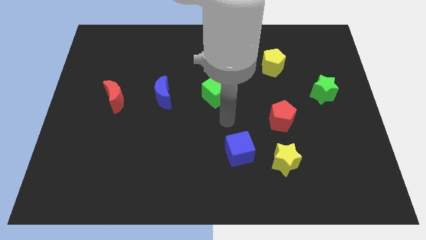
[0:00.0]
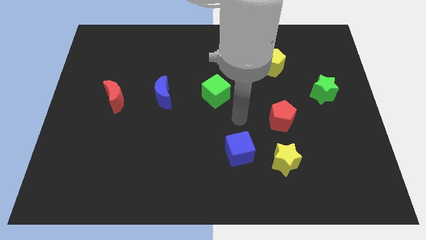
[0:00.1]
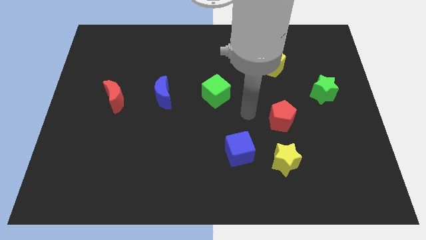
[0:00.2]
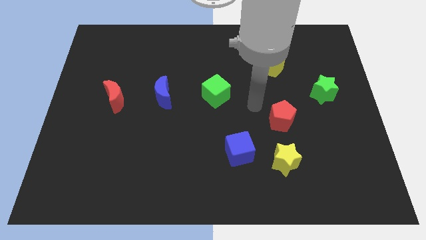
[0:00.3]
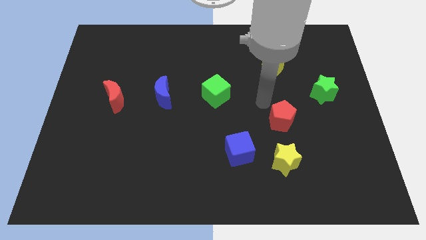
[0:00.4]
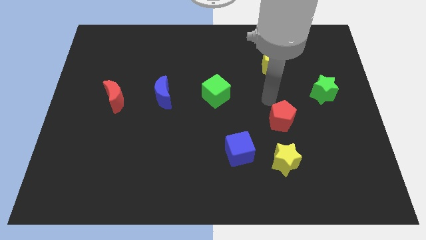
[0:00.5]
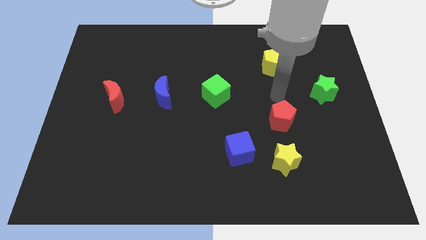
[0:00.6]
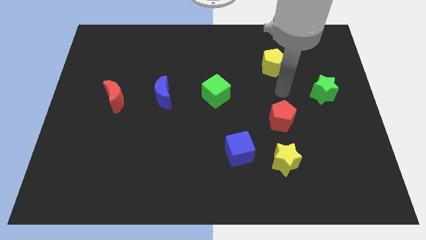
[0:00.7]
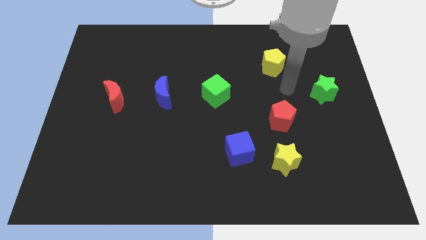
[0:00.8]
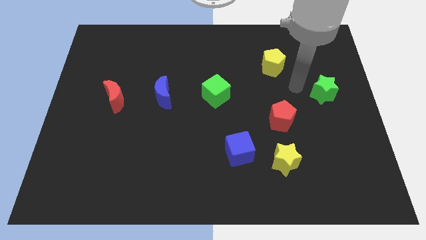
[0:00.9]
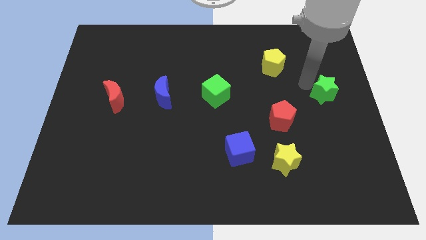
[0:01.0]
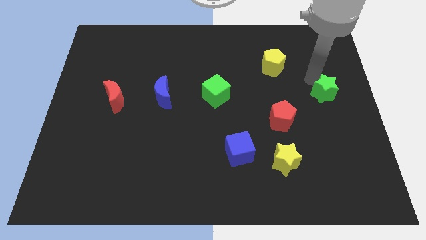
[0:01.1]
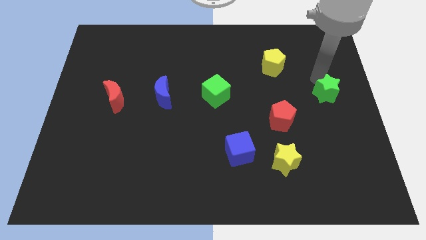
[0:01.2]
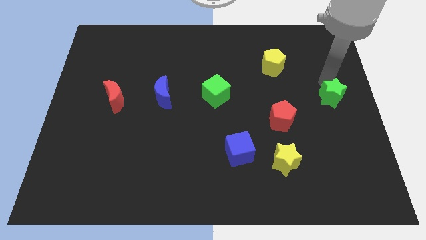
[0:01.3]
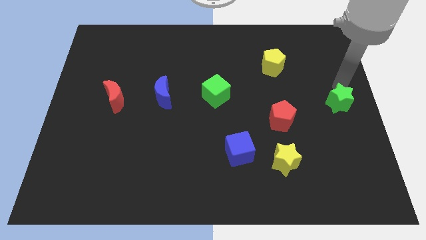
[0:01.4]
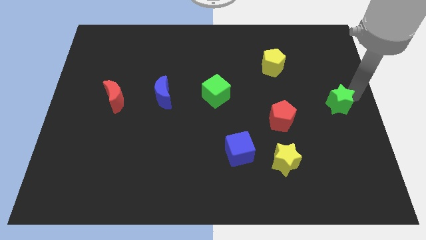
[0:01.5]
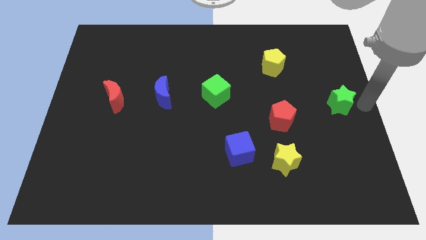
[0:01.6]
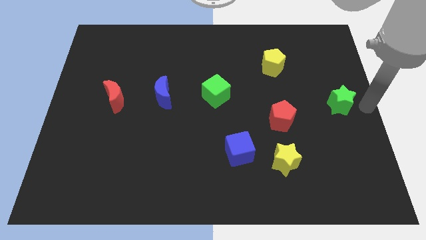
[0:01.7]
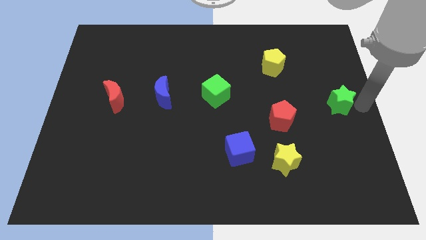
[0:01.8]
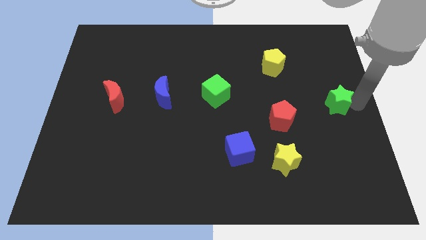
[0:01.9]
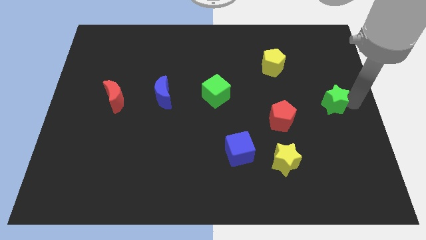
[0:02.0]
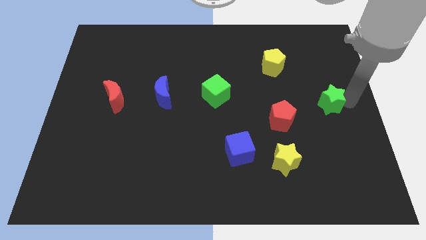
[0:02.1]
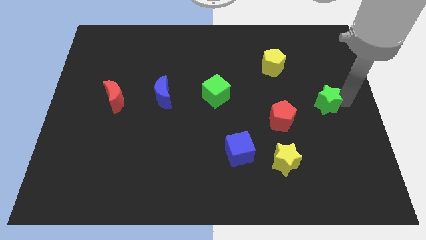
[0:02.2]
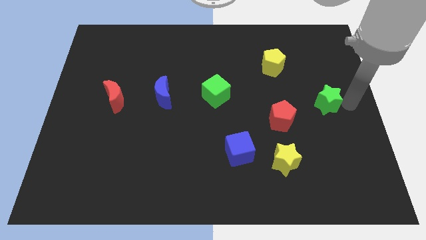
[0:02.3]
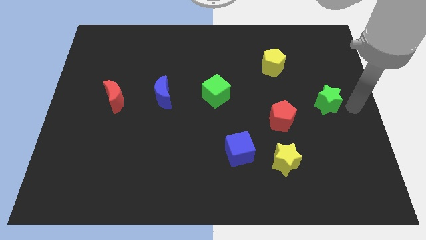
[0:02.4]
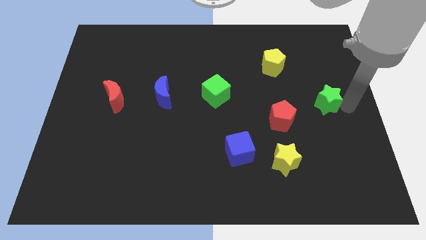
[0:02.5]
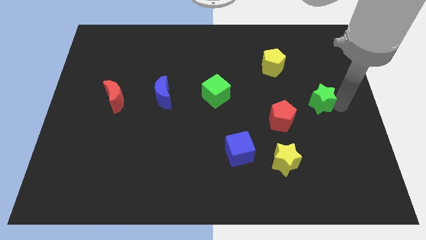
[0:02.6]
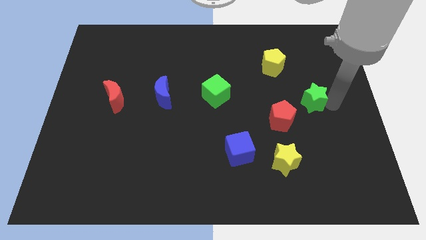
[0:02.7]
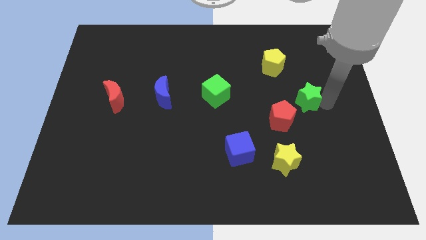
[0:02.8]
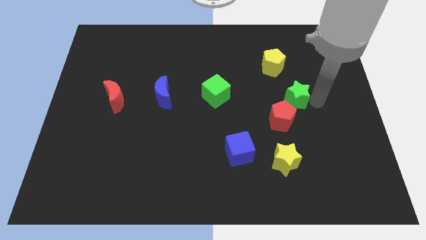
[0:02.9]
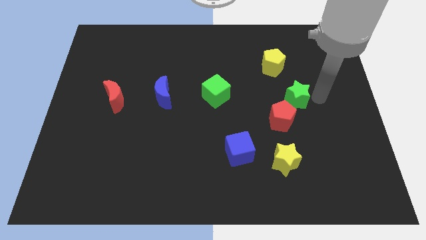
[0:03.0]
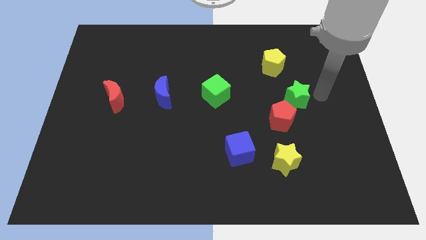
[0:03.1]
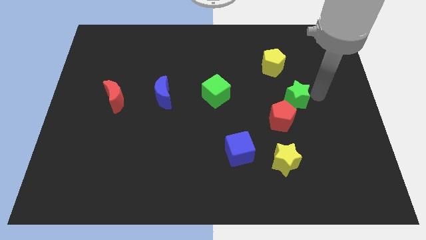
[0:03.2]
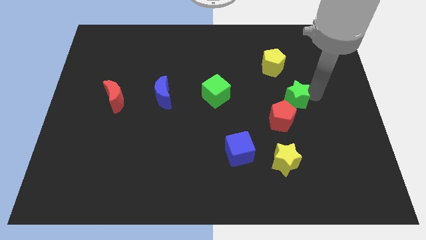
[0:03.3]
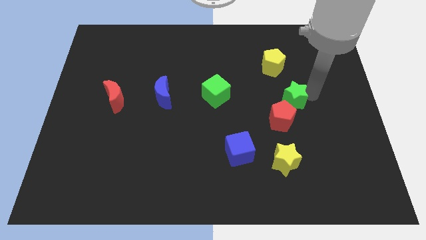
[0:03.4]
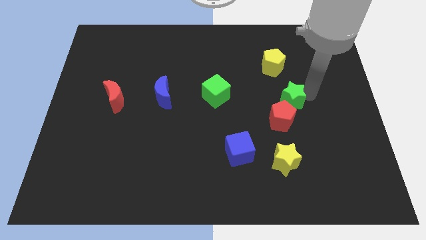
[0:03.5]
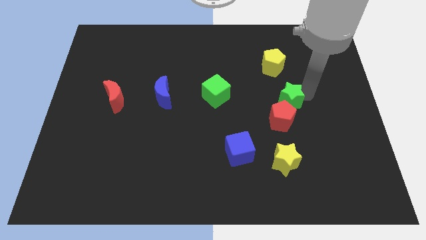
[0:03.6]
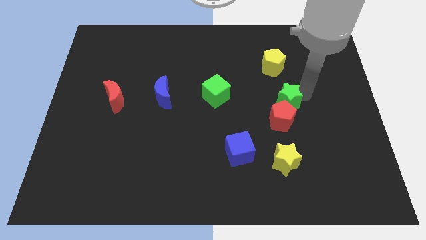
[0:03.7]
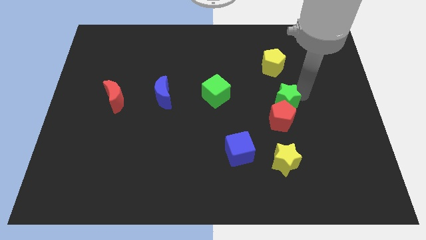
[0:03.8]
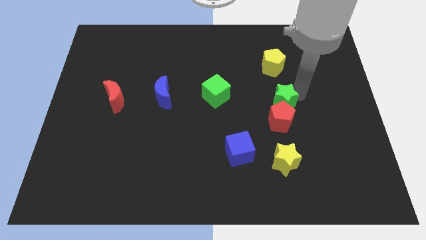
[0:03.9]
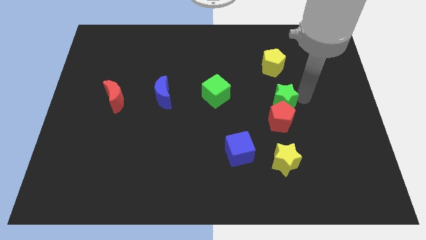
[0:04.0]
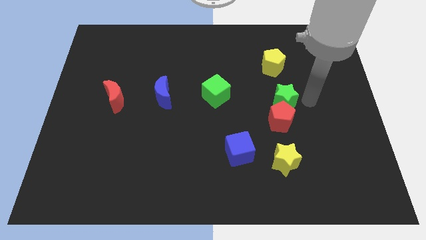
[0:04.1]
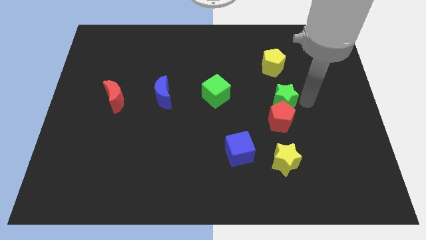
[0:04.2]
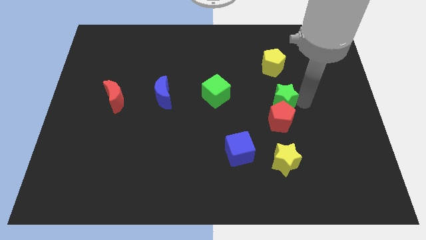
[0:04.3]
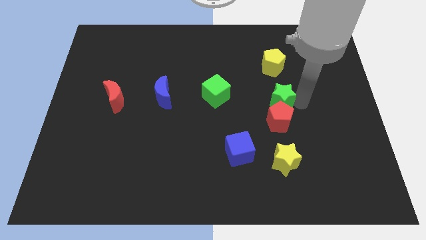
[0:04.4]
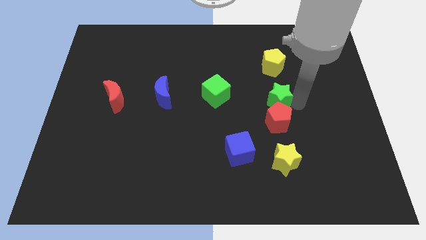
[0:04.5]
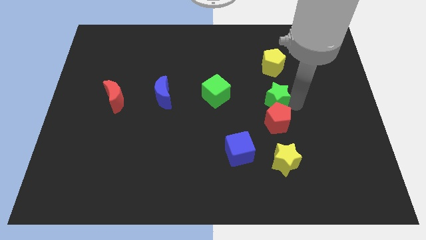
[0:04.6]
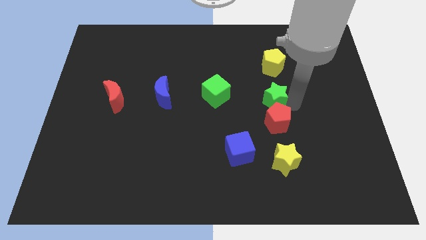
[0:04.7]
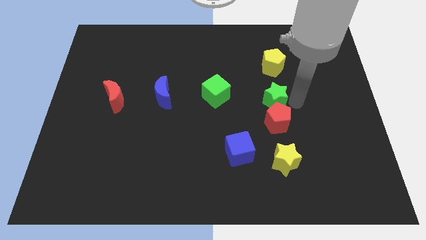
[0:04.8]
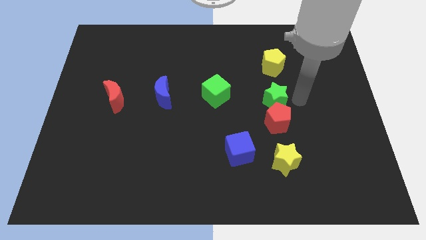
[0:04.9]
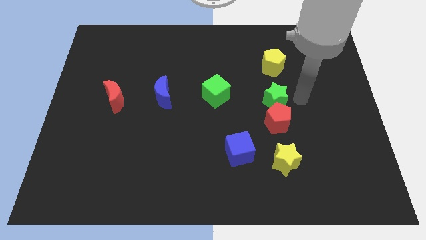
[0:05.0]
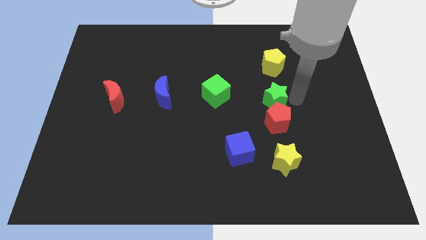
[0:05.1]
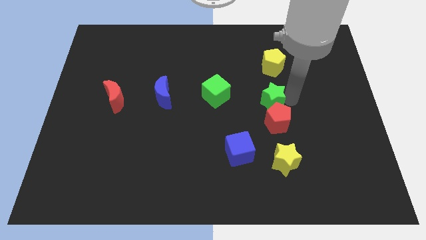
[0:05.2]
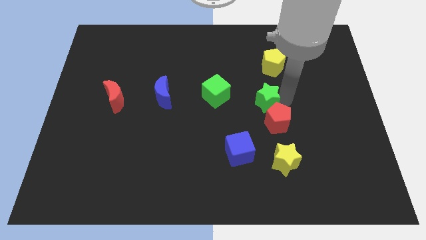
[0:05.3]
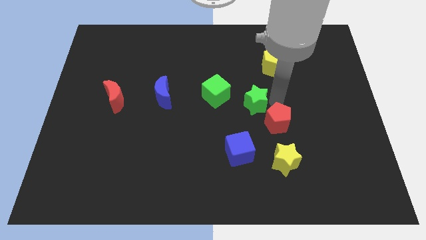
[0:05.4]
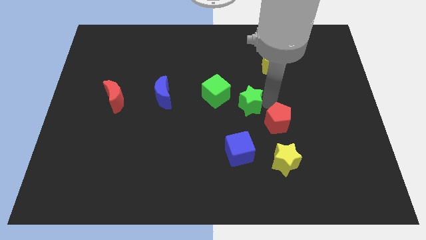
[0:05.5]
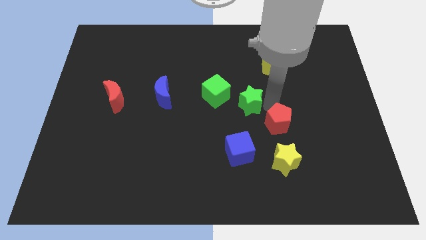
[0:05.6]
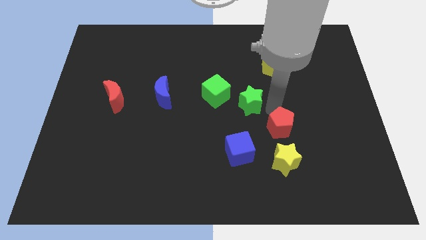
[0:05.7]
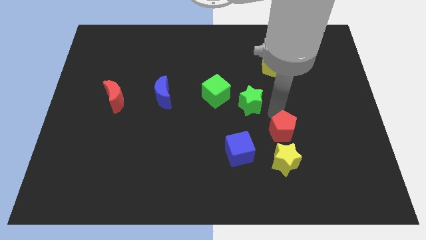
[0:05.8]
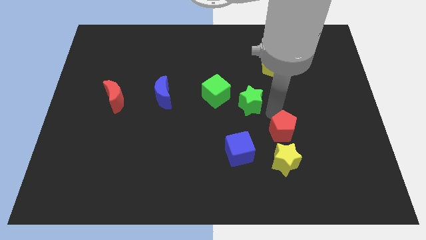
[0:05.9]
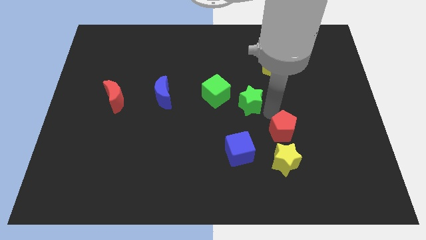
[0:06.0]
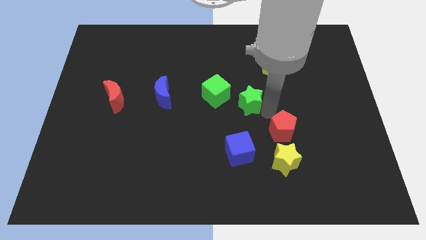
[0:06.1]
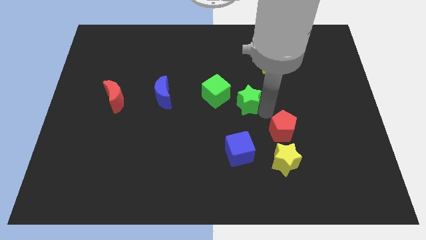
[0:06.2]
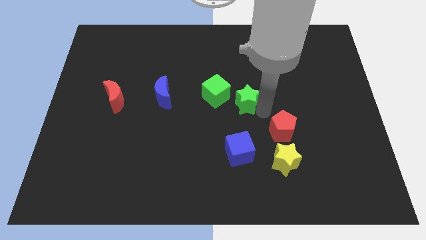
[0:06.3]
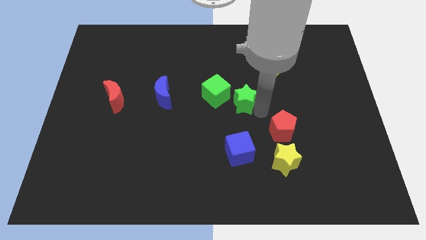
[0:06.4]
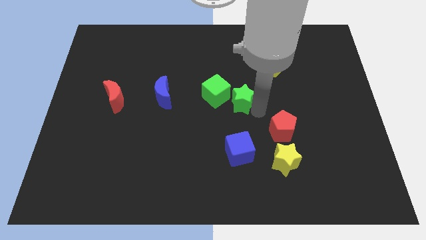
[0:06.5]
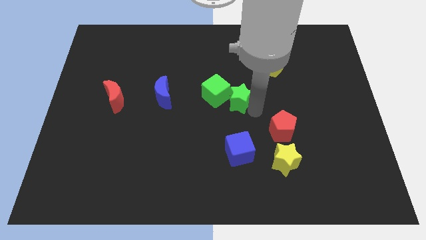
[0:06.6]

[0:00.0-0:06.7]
move the green star to the green cube

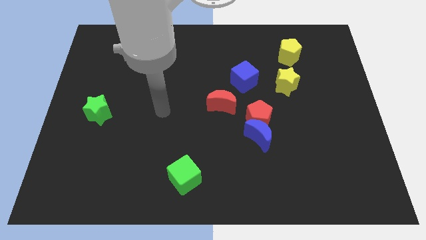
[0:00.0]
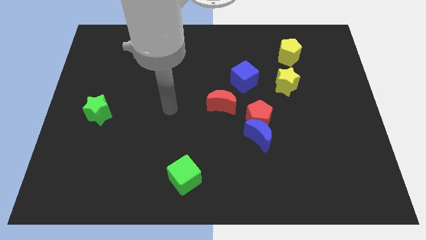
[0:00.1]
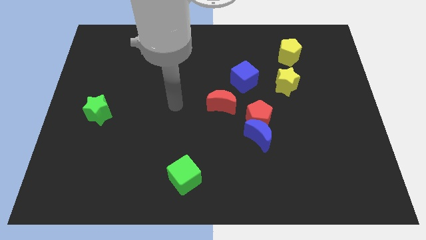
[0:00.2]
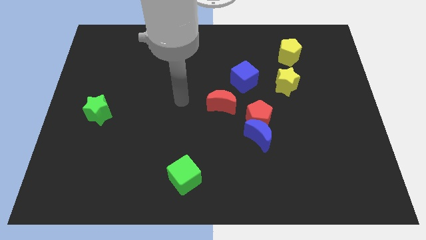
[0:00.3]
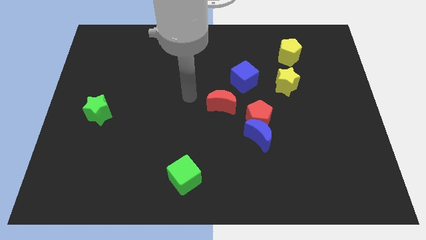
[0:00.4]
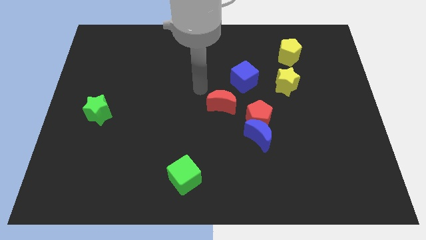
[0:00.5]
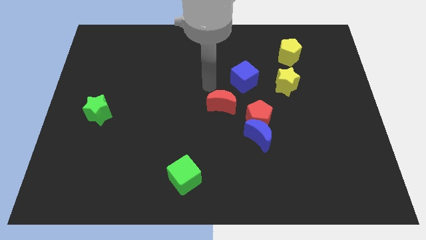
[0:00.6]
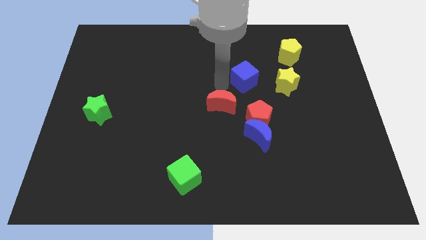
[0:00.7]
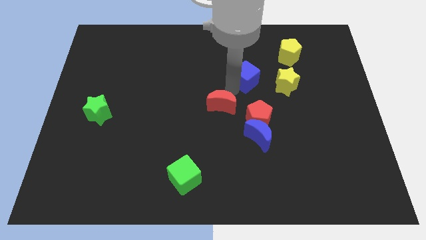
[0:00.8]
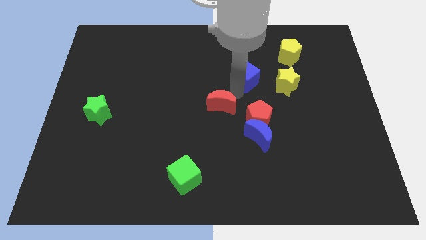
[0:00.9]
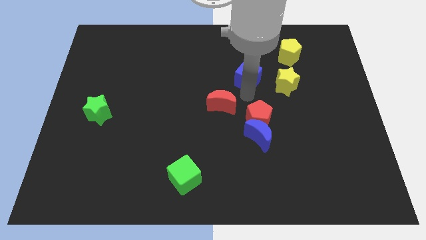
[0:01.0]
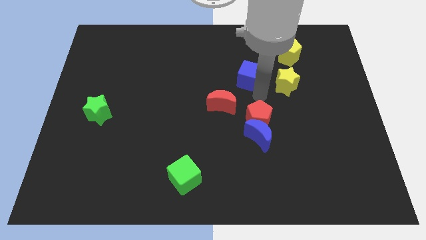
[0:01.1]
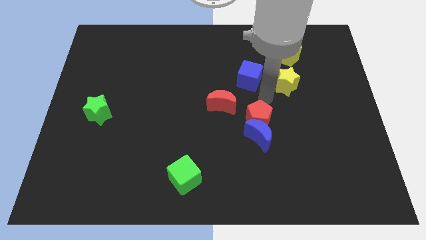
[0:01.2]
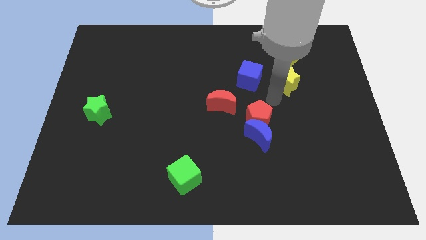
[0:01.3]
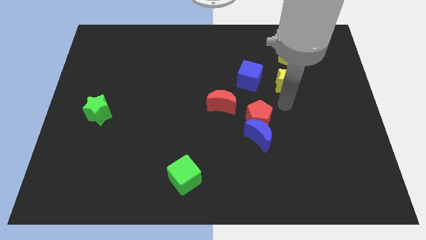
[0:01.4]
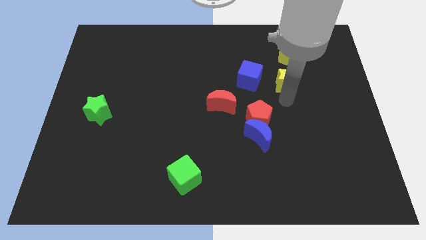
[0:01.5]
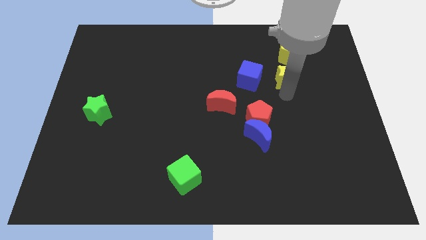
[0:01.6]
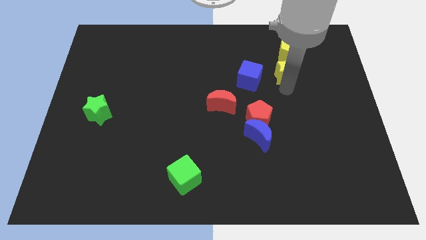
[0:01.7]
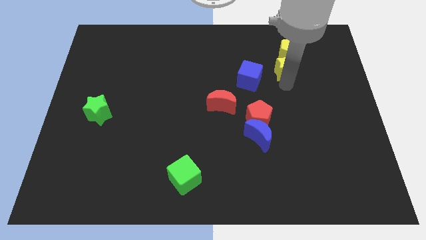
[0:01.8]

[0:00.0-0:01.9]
push the yellow star to the yellow pentagon
